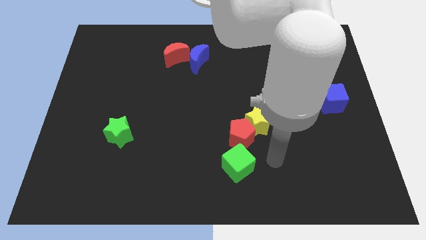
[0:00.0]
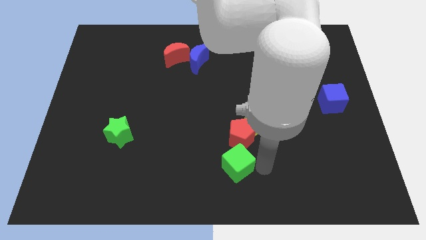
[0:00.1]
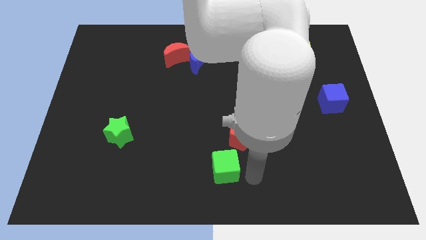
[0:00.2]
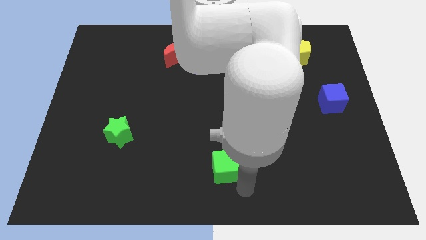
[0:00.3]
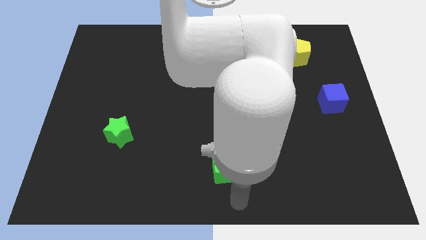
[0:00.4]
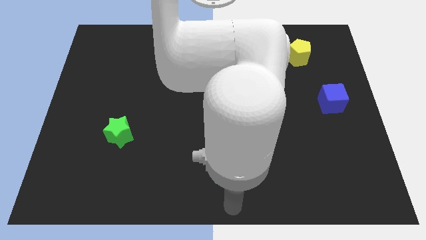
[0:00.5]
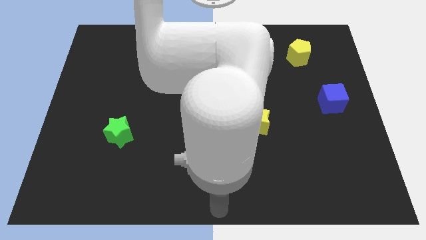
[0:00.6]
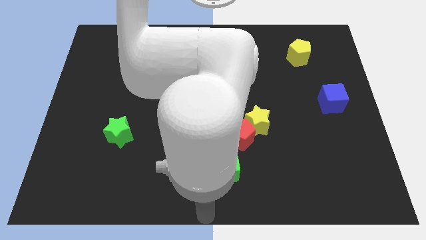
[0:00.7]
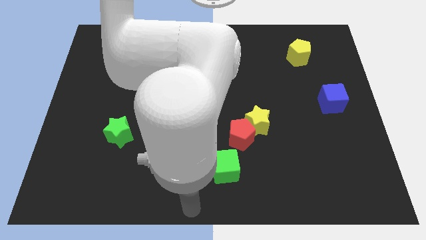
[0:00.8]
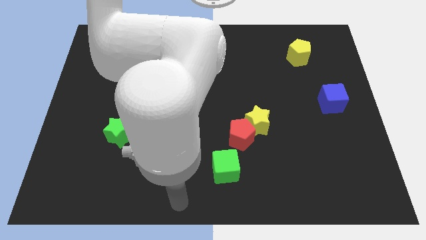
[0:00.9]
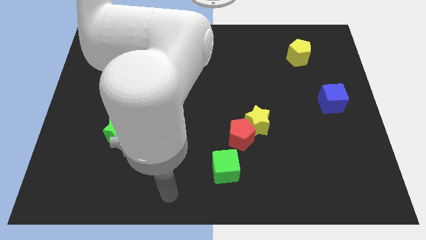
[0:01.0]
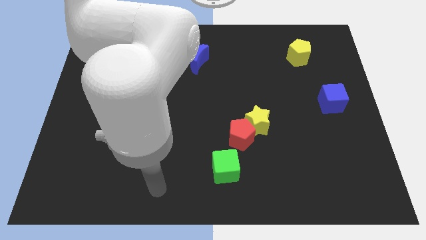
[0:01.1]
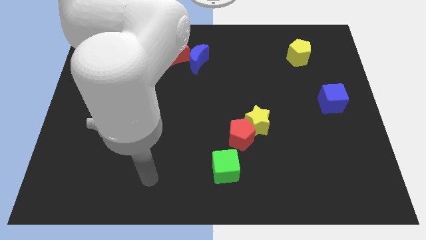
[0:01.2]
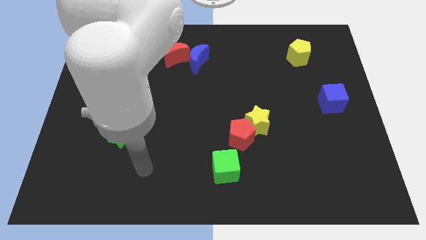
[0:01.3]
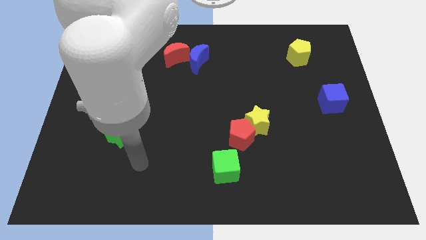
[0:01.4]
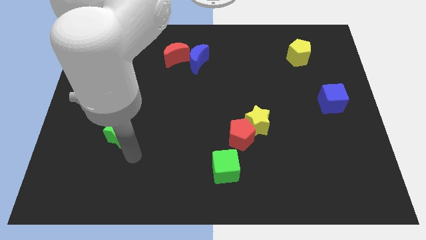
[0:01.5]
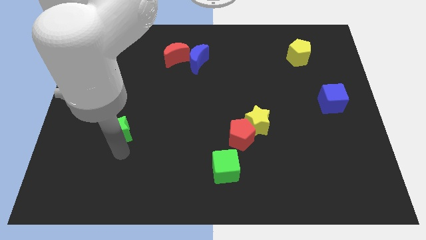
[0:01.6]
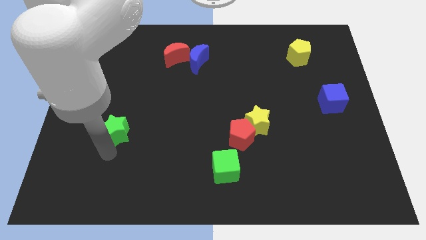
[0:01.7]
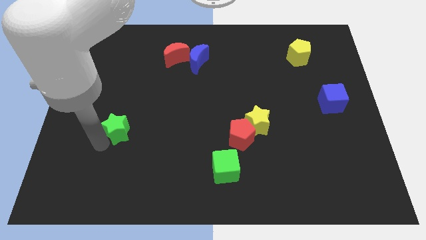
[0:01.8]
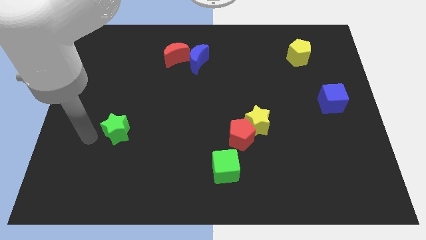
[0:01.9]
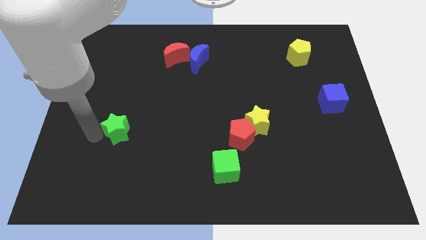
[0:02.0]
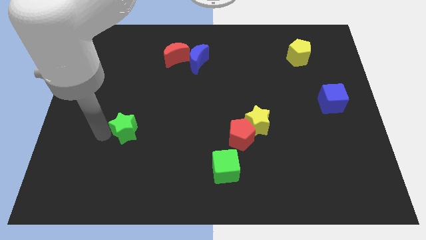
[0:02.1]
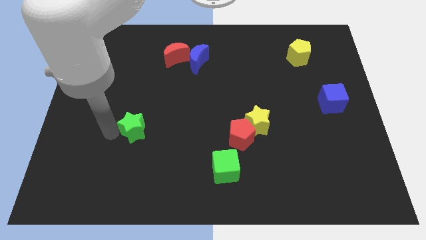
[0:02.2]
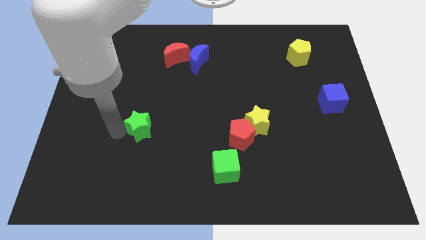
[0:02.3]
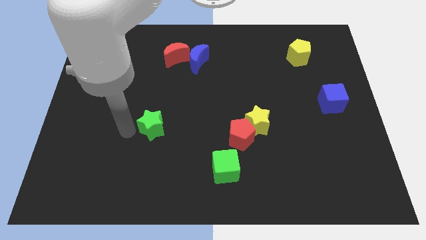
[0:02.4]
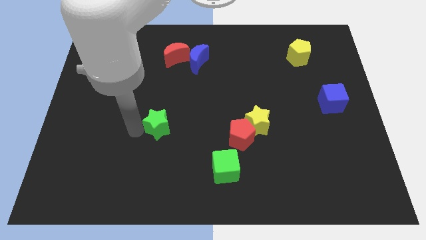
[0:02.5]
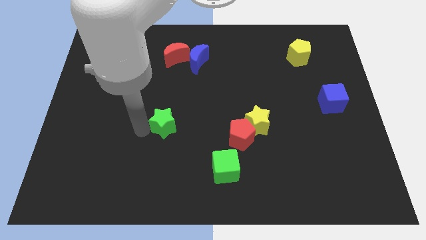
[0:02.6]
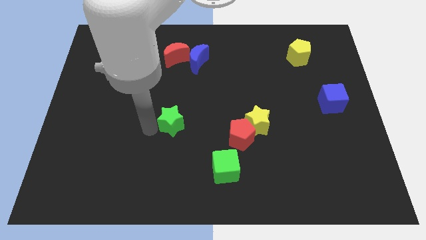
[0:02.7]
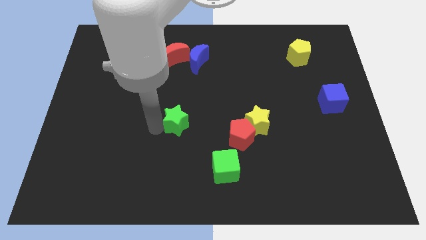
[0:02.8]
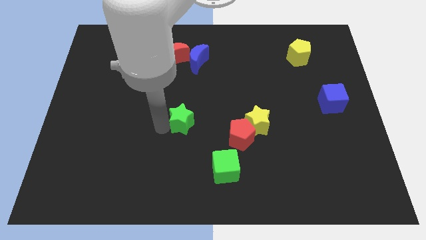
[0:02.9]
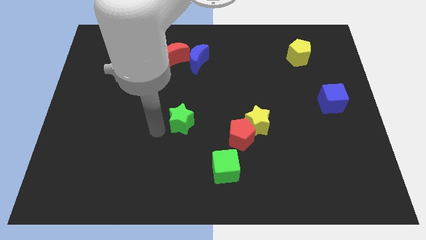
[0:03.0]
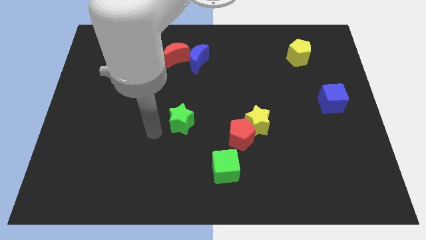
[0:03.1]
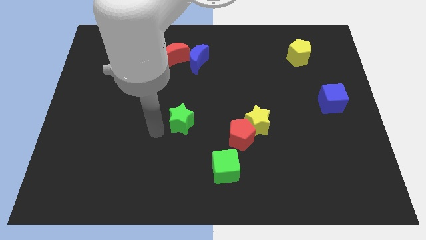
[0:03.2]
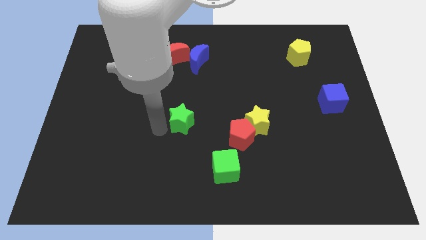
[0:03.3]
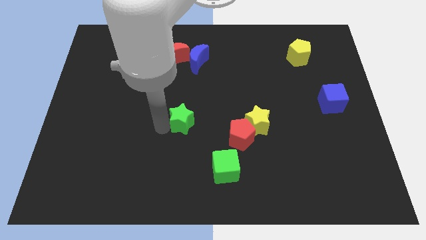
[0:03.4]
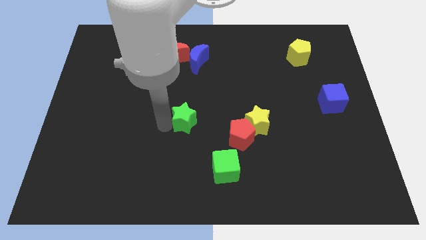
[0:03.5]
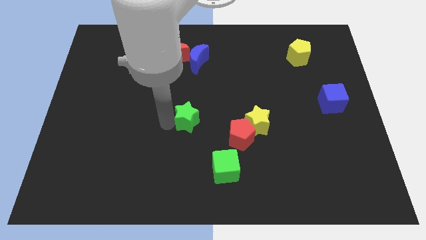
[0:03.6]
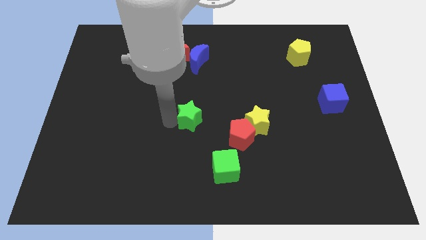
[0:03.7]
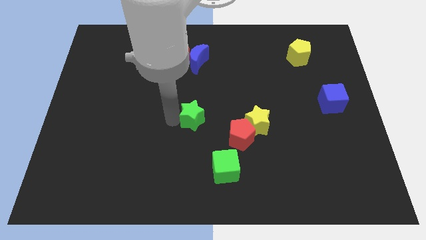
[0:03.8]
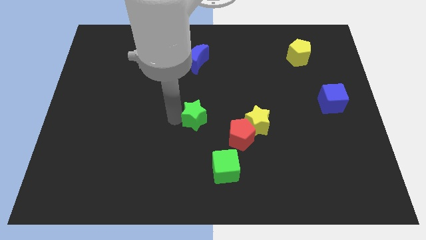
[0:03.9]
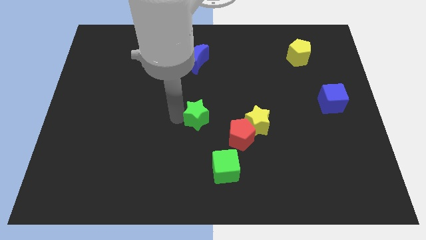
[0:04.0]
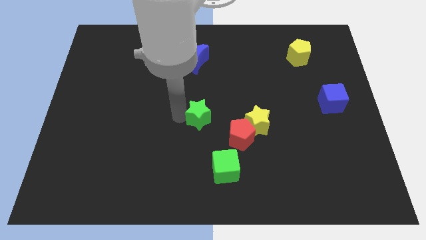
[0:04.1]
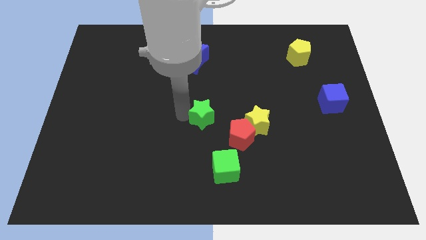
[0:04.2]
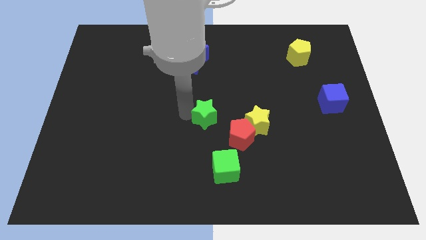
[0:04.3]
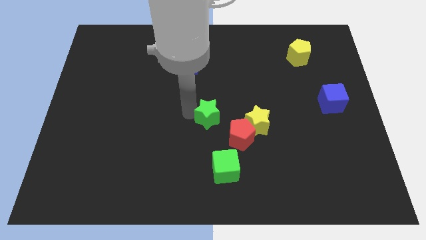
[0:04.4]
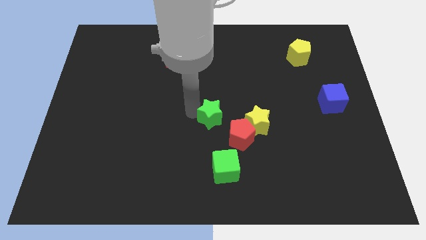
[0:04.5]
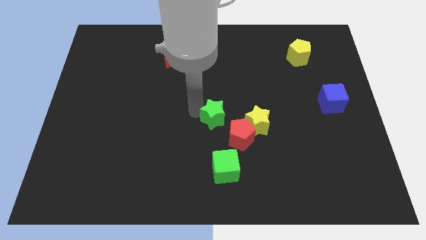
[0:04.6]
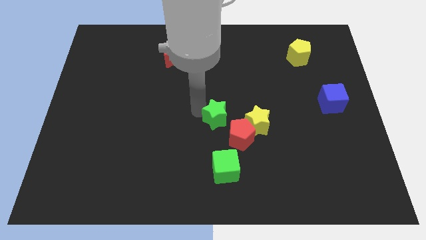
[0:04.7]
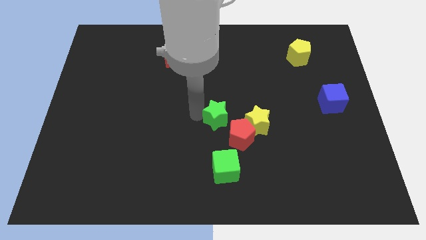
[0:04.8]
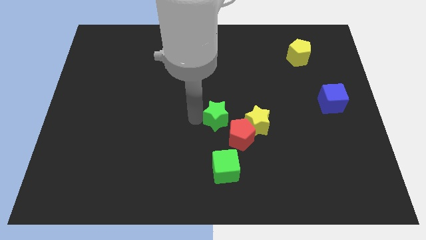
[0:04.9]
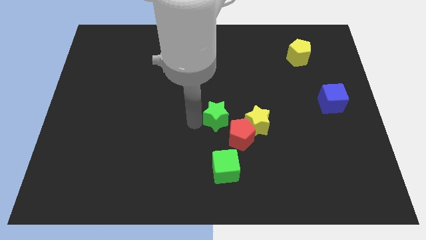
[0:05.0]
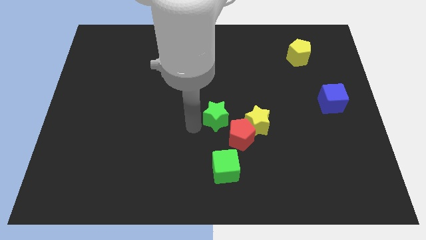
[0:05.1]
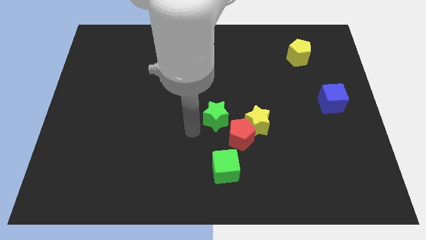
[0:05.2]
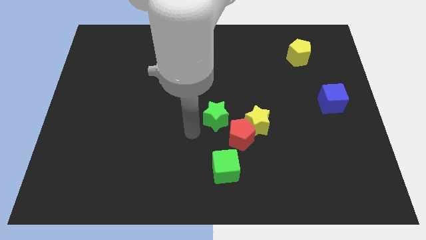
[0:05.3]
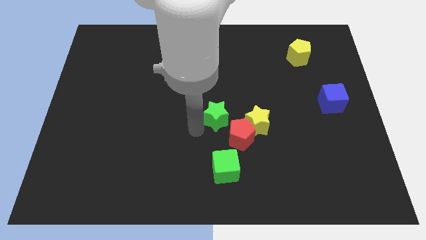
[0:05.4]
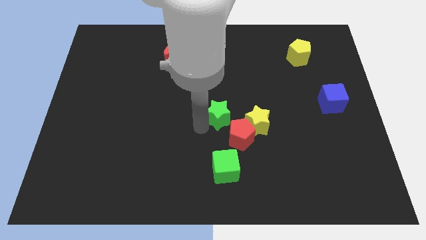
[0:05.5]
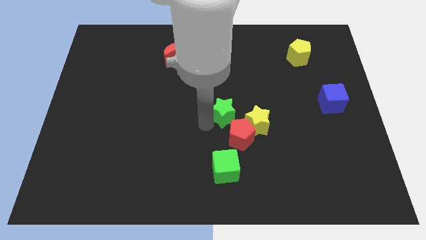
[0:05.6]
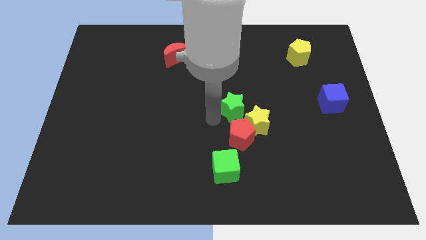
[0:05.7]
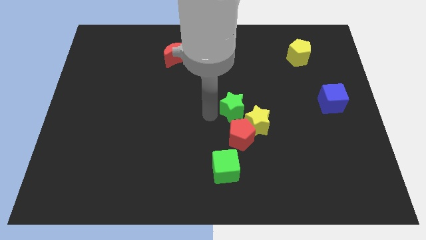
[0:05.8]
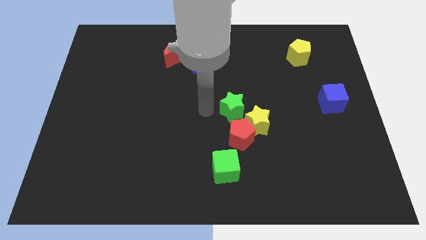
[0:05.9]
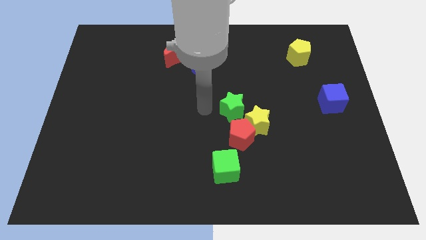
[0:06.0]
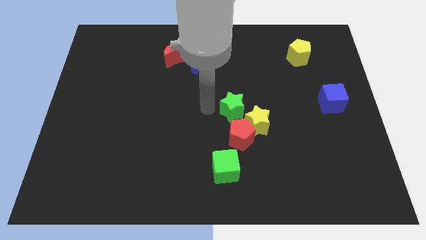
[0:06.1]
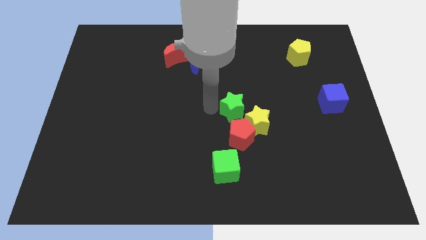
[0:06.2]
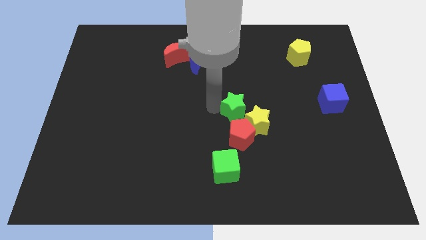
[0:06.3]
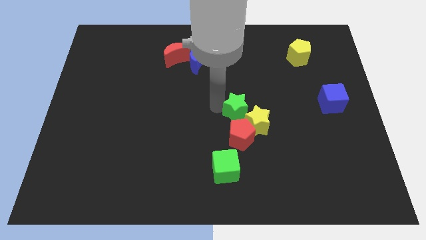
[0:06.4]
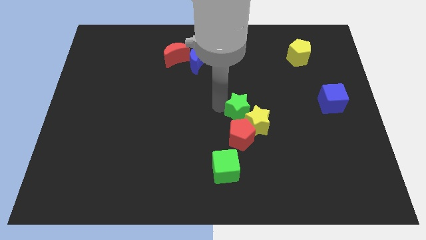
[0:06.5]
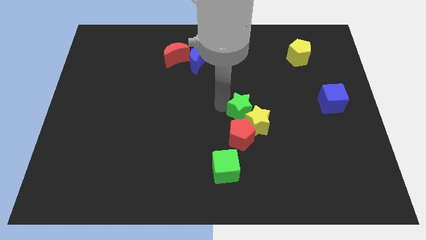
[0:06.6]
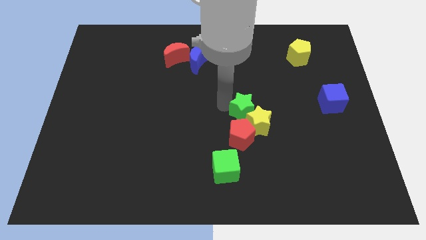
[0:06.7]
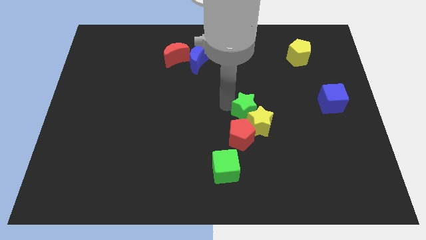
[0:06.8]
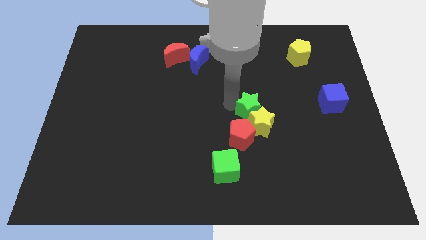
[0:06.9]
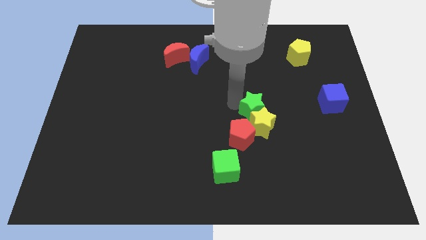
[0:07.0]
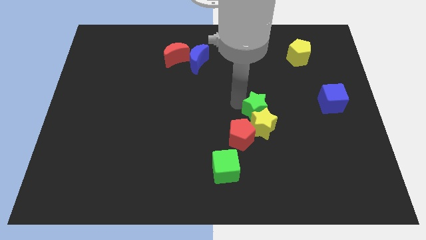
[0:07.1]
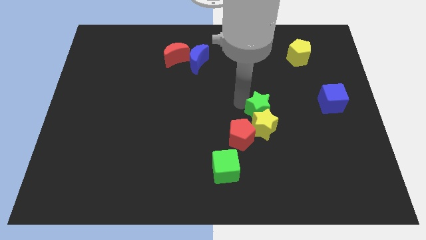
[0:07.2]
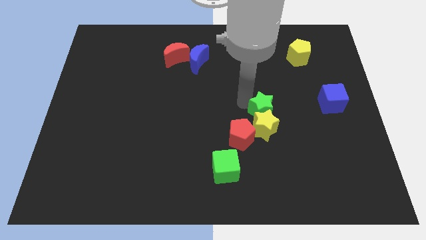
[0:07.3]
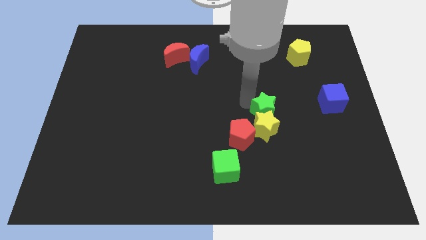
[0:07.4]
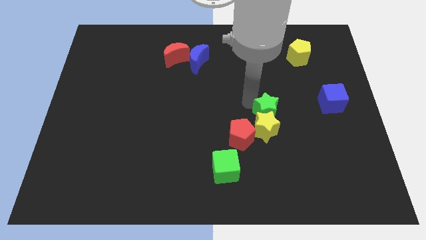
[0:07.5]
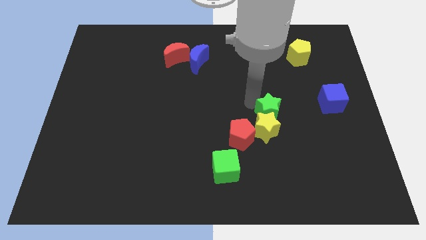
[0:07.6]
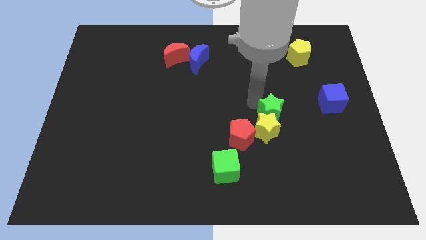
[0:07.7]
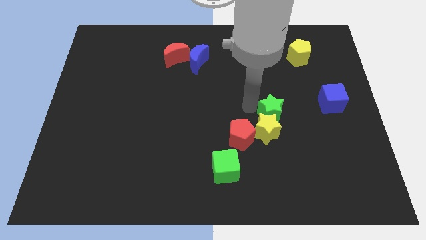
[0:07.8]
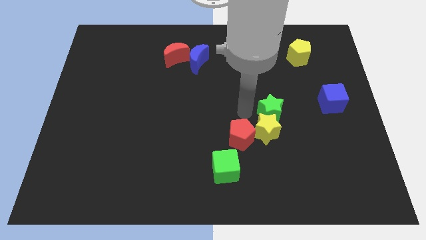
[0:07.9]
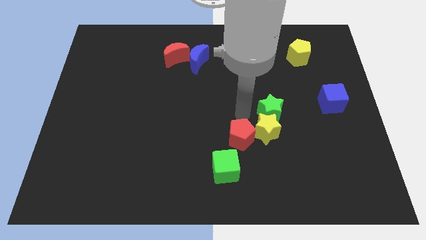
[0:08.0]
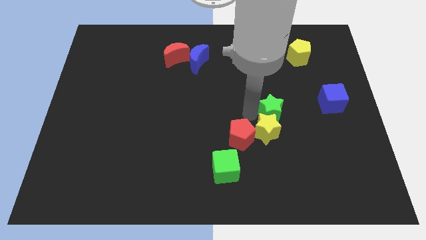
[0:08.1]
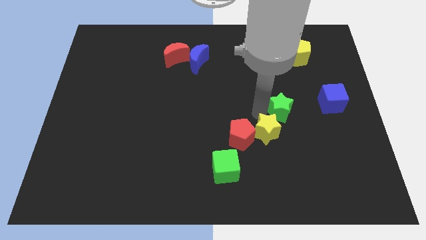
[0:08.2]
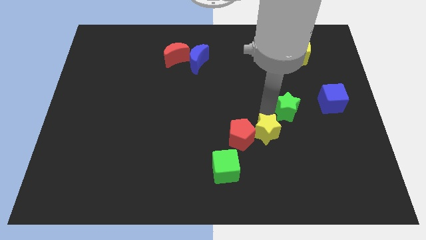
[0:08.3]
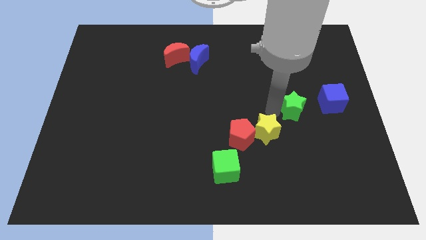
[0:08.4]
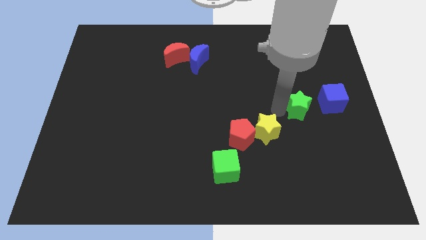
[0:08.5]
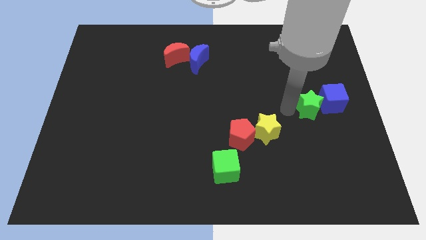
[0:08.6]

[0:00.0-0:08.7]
slide the green star next to the blue cube
